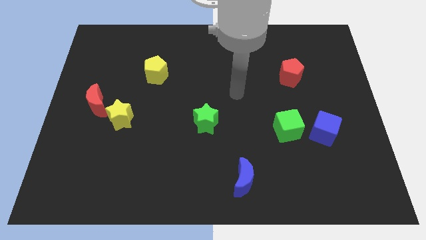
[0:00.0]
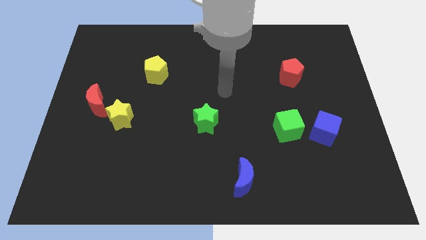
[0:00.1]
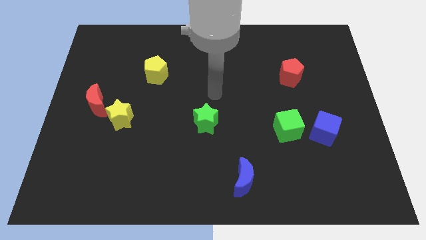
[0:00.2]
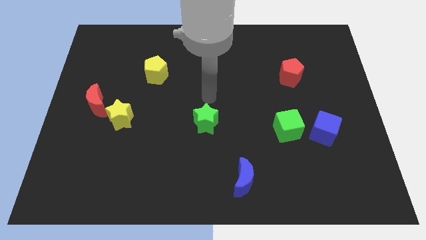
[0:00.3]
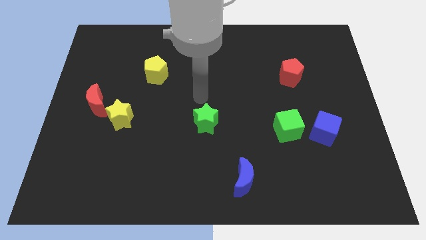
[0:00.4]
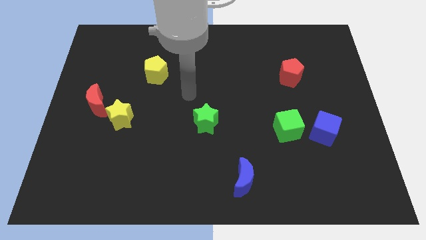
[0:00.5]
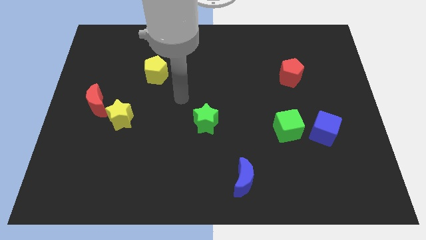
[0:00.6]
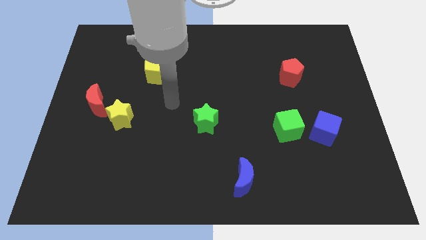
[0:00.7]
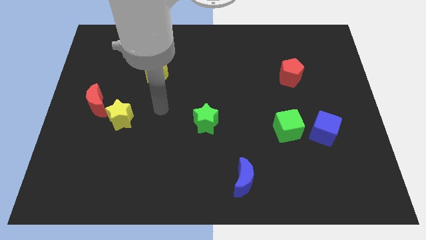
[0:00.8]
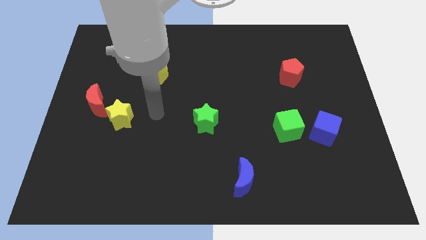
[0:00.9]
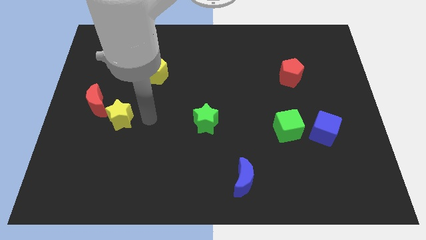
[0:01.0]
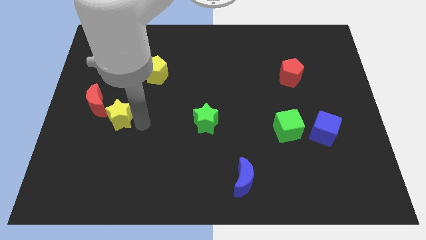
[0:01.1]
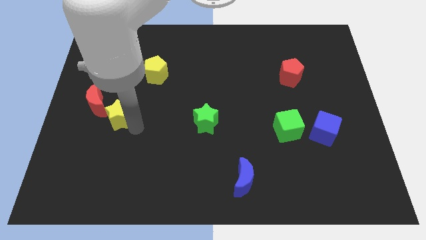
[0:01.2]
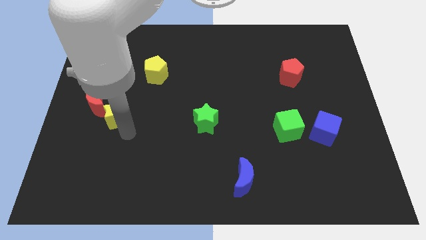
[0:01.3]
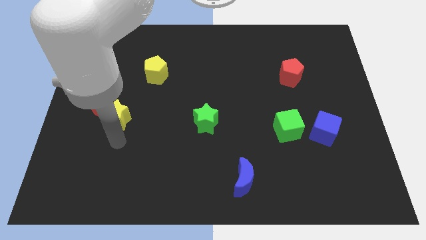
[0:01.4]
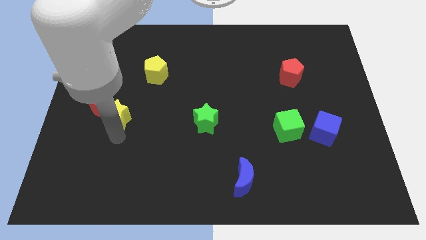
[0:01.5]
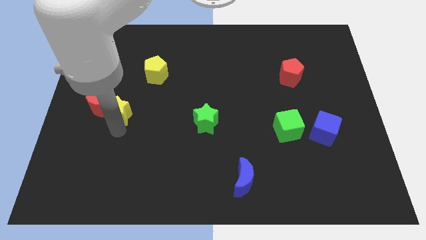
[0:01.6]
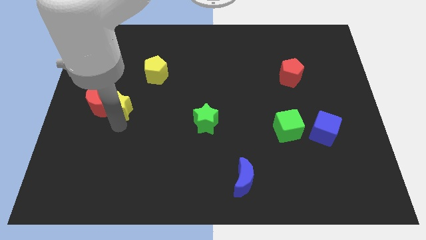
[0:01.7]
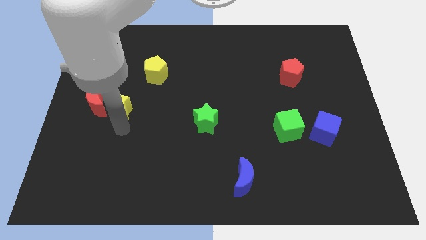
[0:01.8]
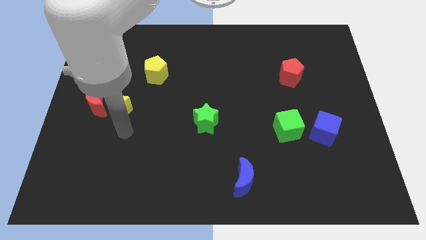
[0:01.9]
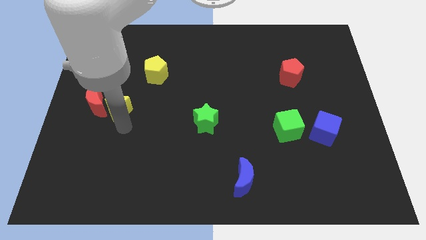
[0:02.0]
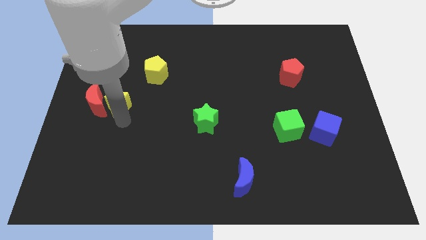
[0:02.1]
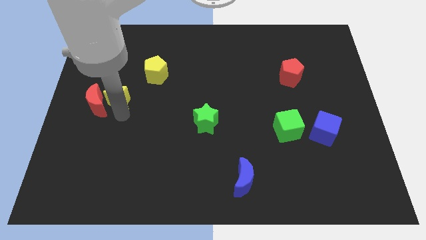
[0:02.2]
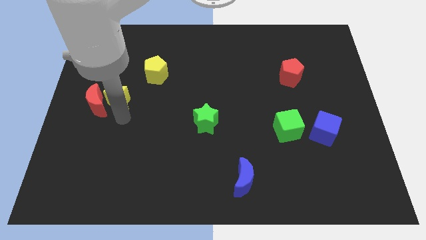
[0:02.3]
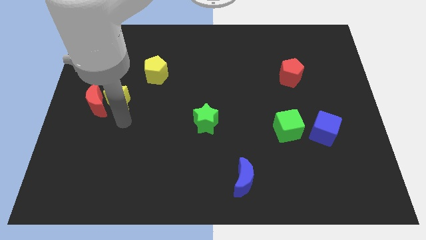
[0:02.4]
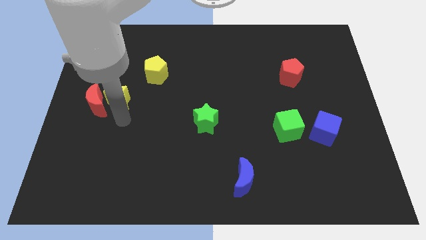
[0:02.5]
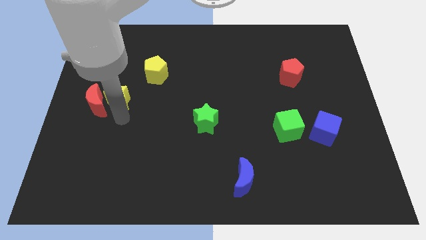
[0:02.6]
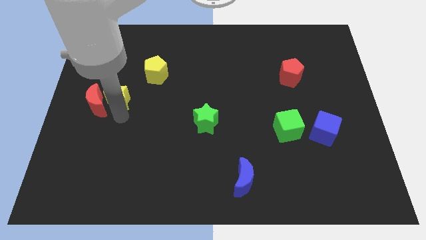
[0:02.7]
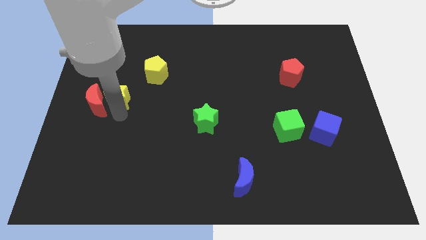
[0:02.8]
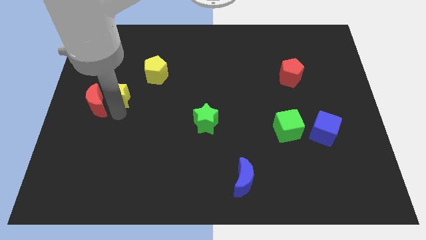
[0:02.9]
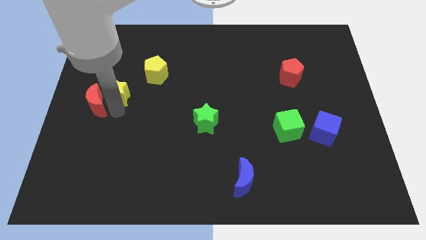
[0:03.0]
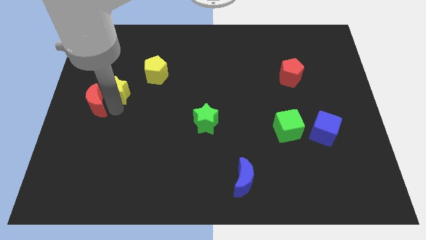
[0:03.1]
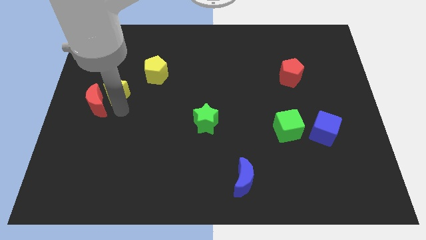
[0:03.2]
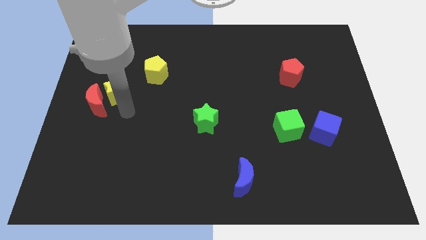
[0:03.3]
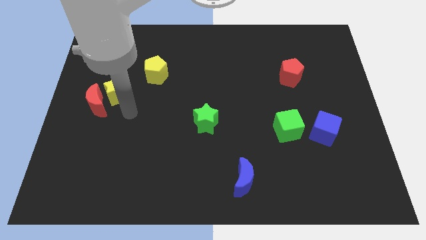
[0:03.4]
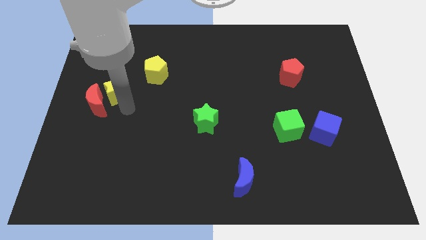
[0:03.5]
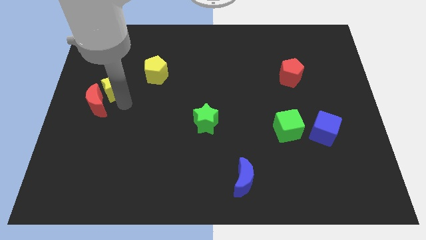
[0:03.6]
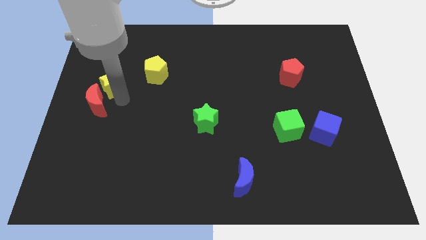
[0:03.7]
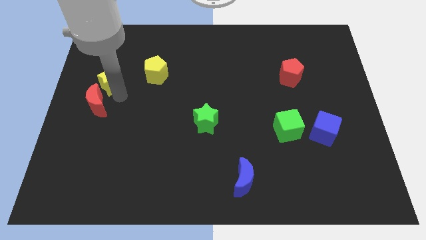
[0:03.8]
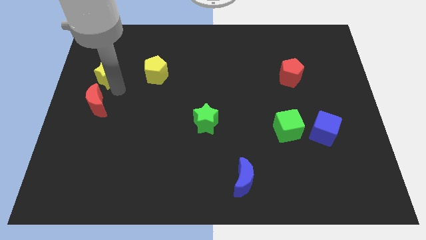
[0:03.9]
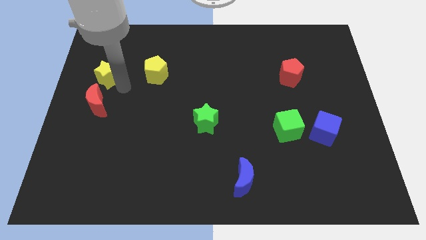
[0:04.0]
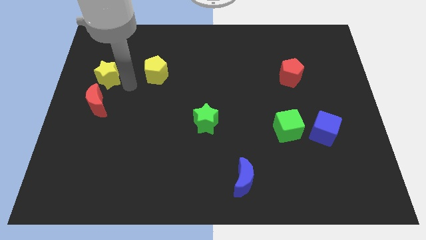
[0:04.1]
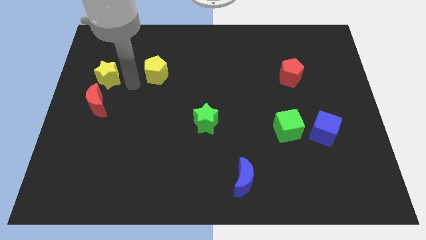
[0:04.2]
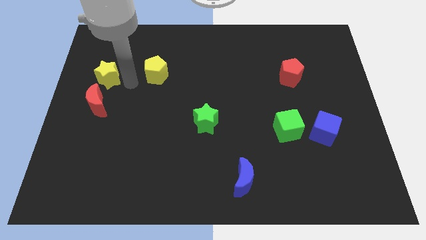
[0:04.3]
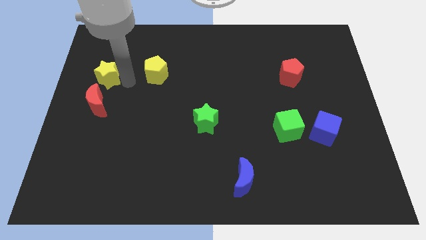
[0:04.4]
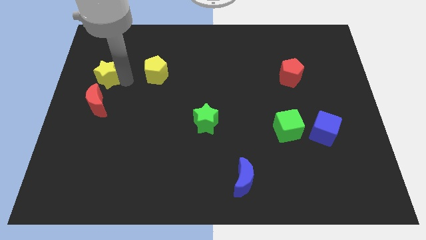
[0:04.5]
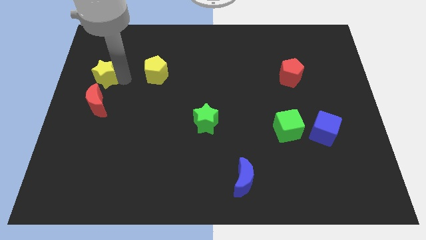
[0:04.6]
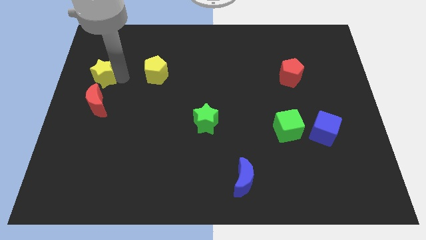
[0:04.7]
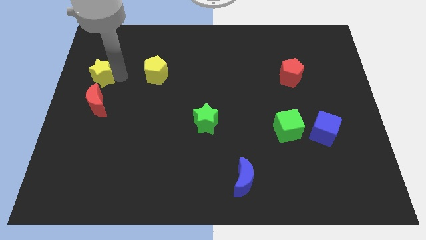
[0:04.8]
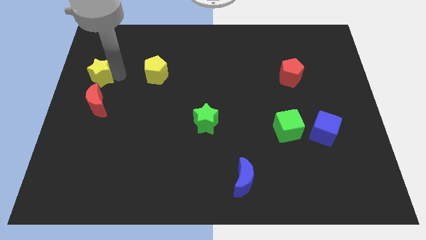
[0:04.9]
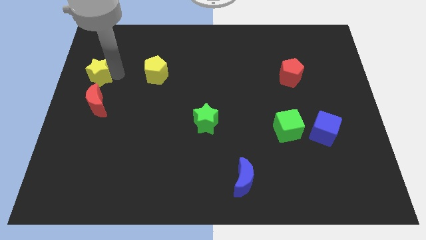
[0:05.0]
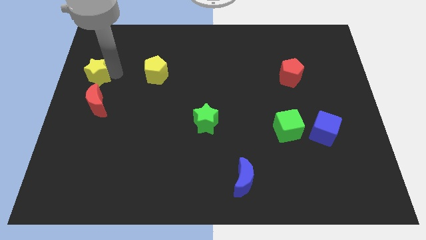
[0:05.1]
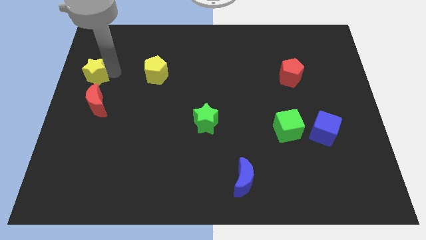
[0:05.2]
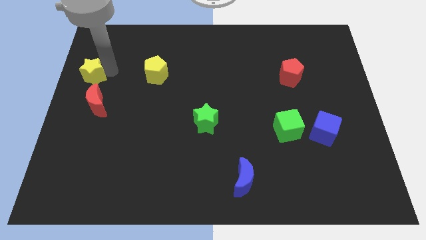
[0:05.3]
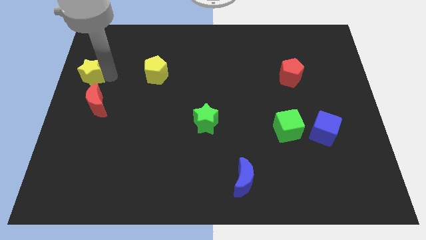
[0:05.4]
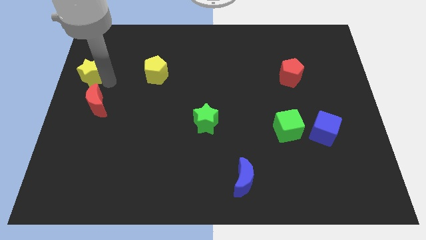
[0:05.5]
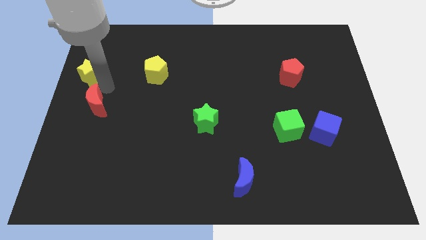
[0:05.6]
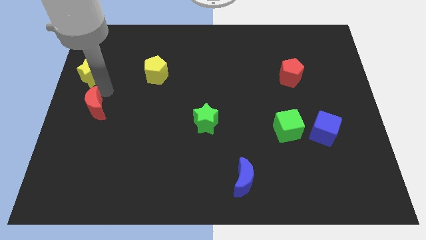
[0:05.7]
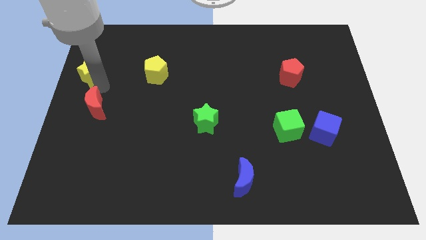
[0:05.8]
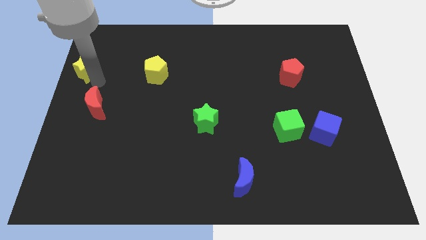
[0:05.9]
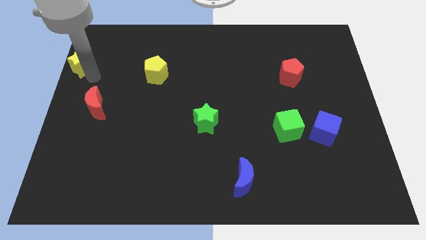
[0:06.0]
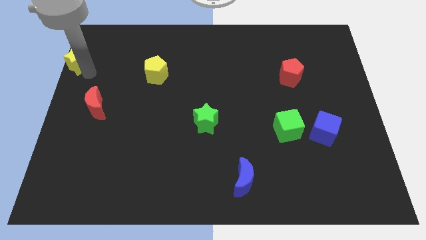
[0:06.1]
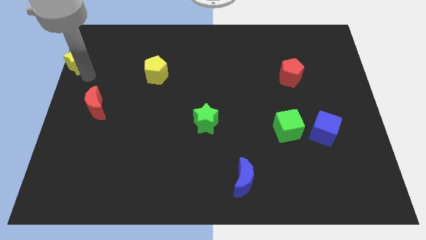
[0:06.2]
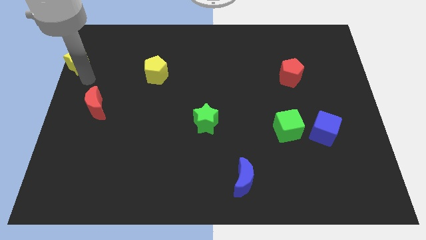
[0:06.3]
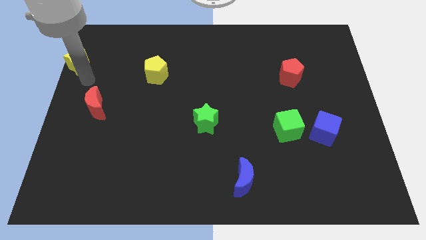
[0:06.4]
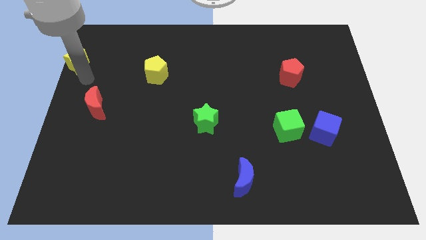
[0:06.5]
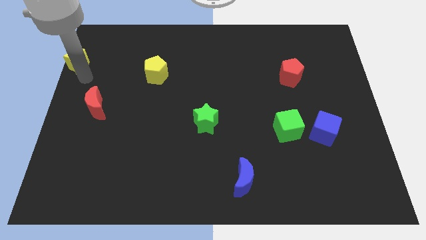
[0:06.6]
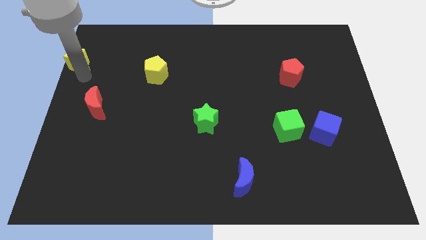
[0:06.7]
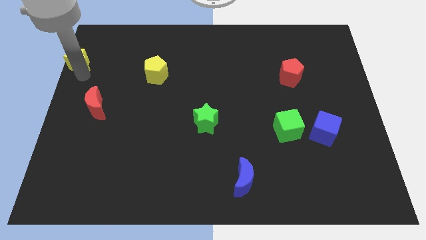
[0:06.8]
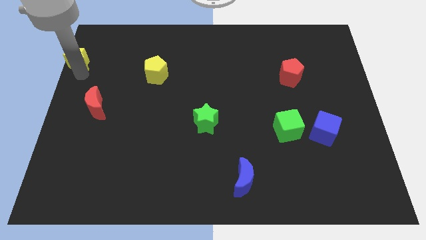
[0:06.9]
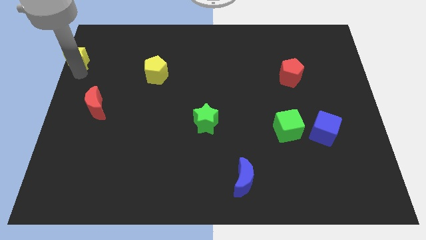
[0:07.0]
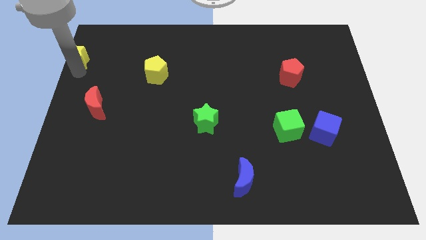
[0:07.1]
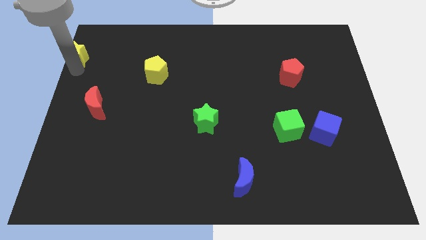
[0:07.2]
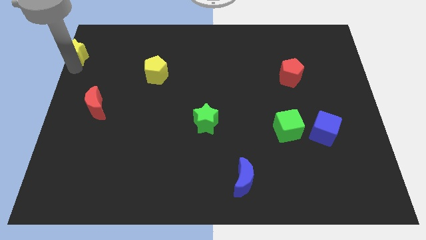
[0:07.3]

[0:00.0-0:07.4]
push the yellow star to the top left

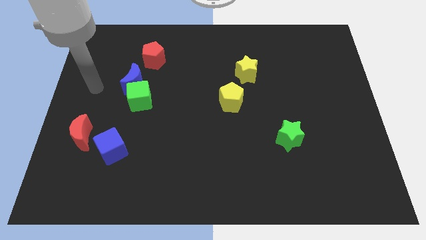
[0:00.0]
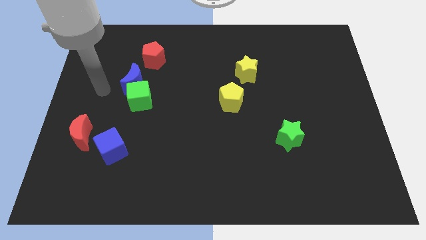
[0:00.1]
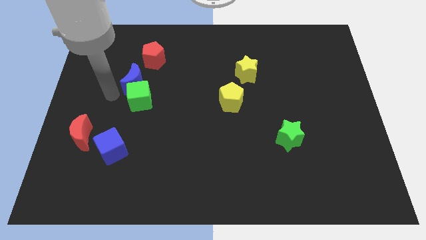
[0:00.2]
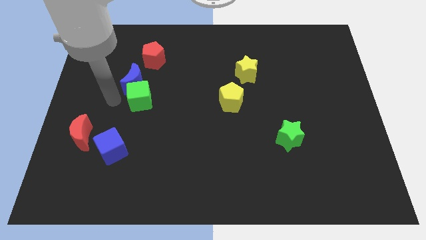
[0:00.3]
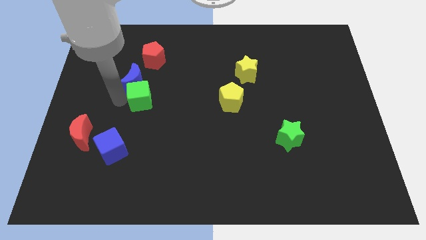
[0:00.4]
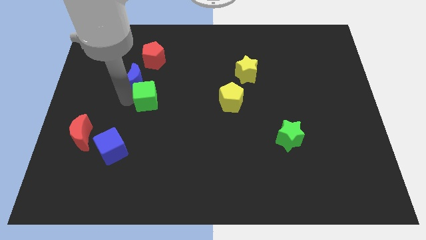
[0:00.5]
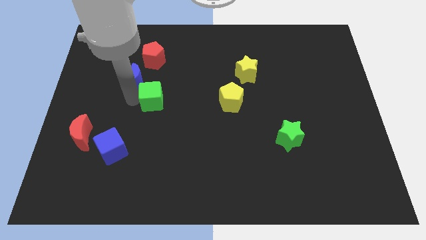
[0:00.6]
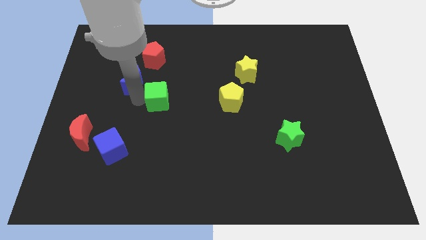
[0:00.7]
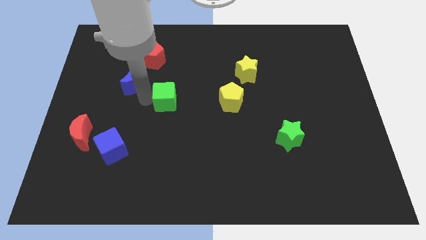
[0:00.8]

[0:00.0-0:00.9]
move the green cube to the center of the board
